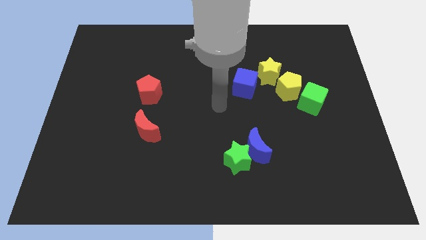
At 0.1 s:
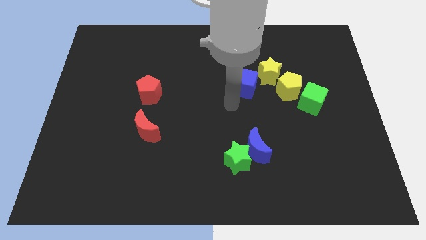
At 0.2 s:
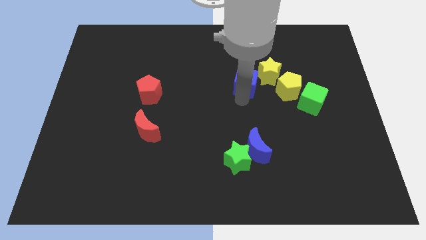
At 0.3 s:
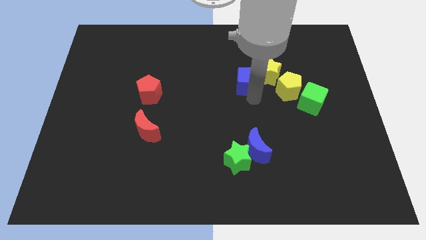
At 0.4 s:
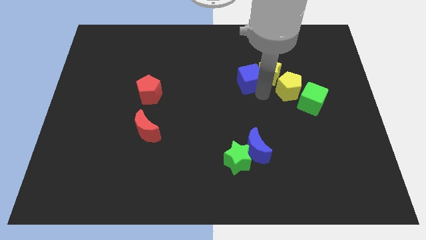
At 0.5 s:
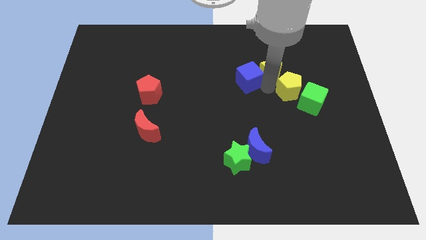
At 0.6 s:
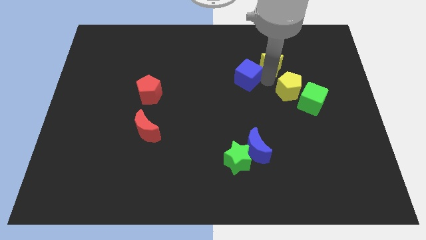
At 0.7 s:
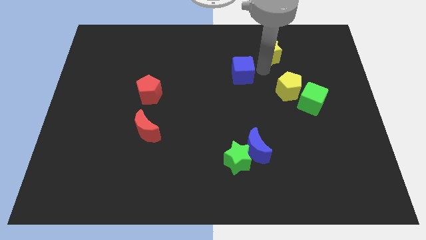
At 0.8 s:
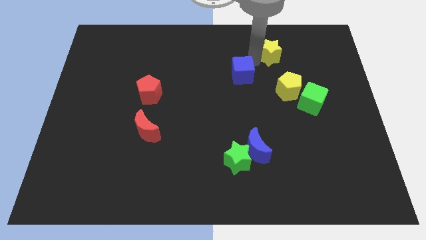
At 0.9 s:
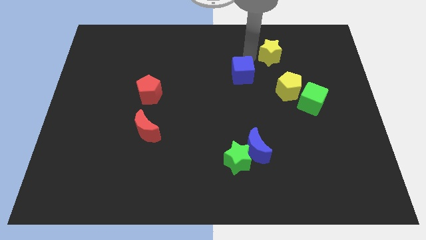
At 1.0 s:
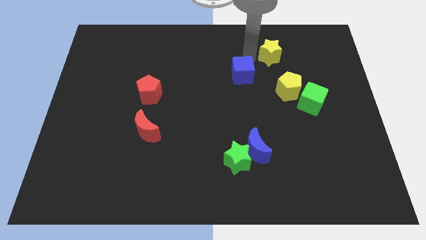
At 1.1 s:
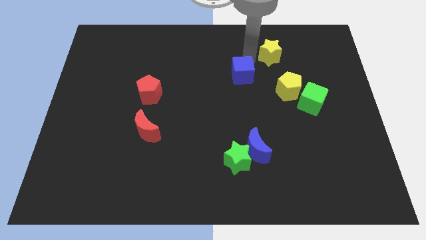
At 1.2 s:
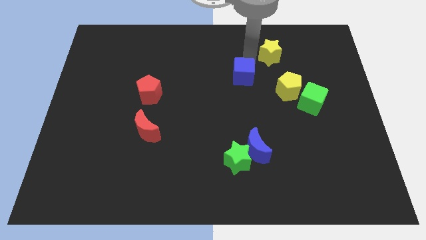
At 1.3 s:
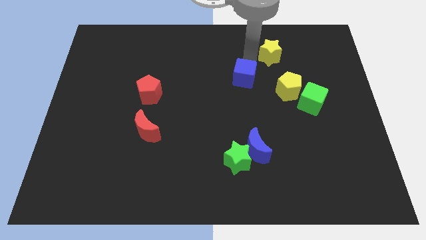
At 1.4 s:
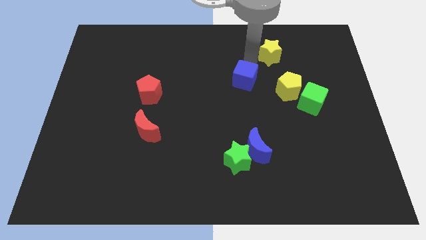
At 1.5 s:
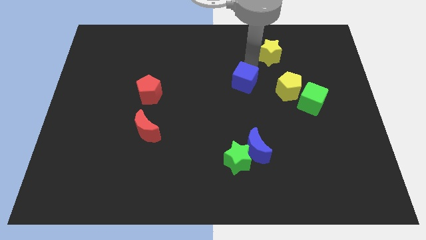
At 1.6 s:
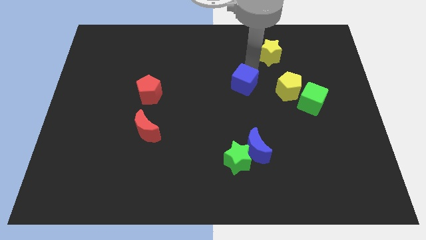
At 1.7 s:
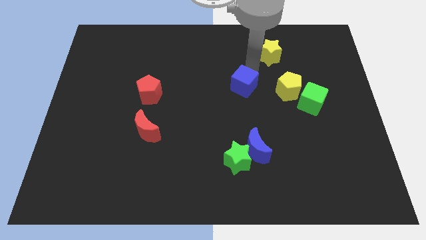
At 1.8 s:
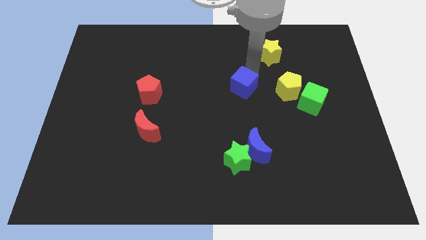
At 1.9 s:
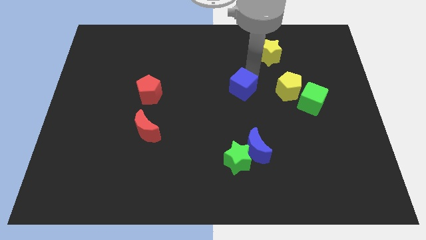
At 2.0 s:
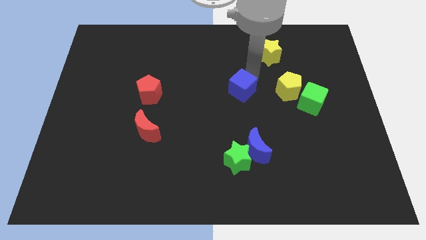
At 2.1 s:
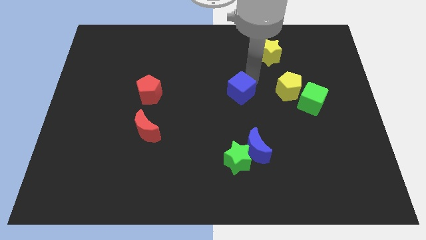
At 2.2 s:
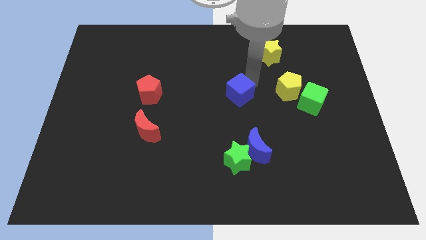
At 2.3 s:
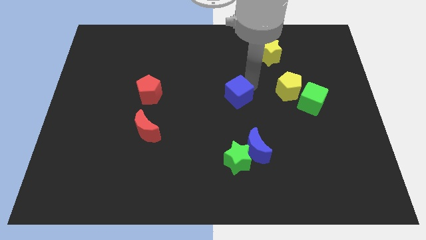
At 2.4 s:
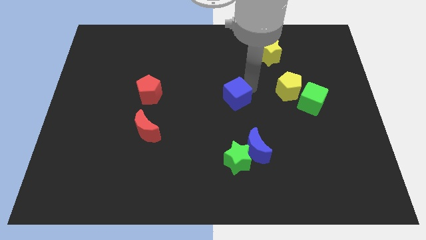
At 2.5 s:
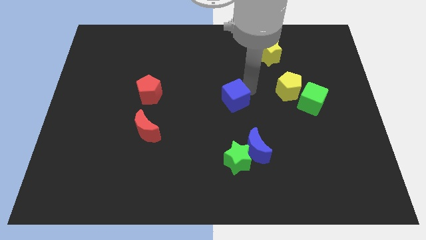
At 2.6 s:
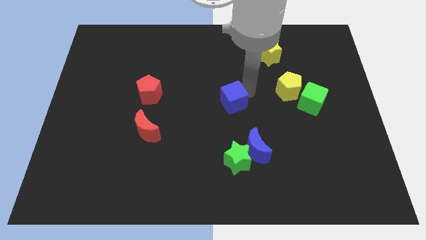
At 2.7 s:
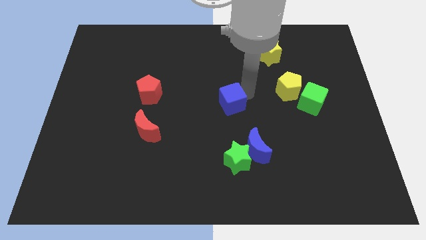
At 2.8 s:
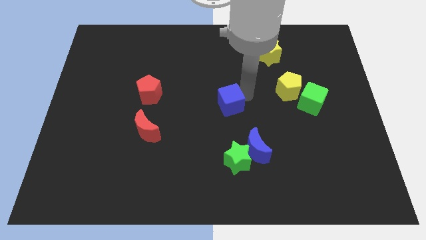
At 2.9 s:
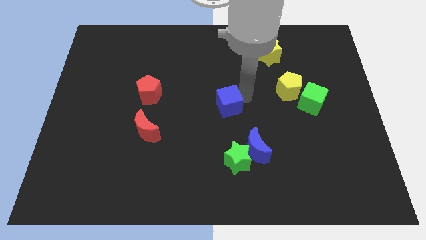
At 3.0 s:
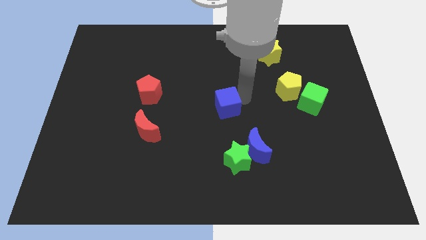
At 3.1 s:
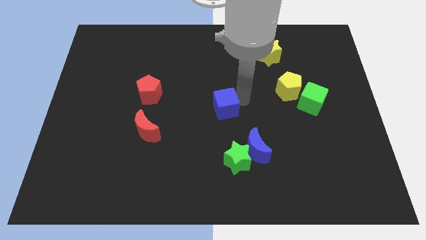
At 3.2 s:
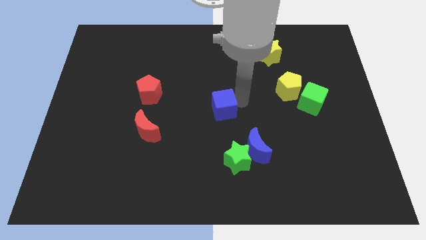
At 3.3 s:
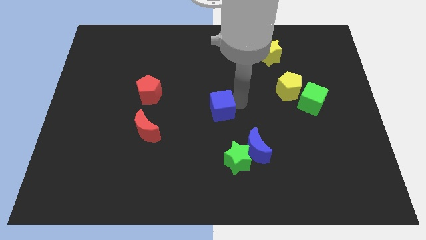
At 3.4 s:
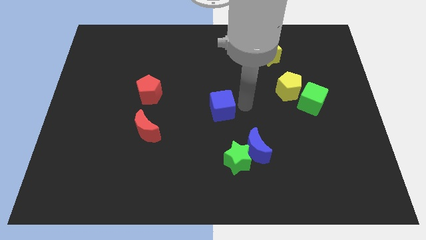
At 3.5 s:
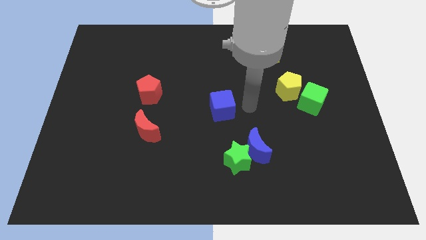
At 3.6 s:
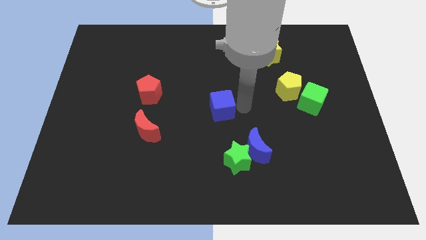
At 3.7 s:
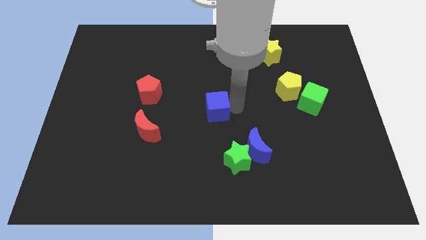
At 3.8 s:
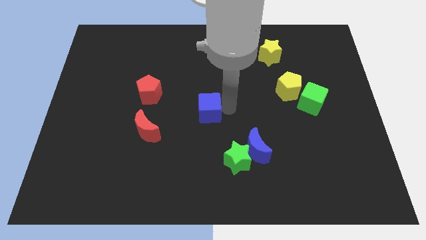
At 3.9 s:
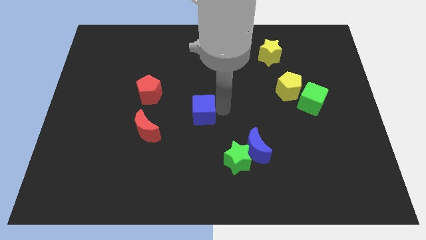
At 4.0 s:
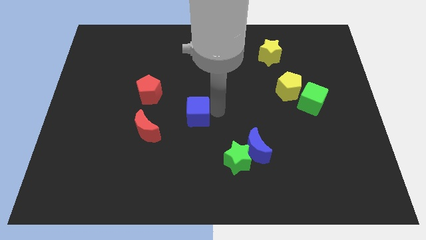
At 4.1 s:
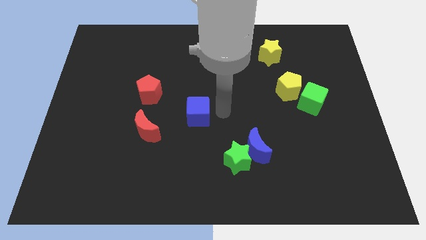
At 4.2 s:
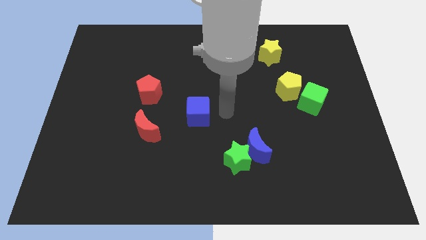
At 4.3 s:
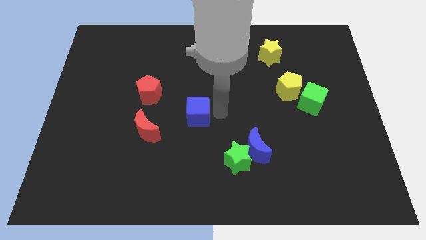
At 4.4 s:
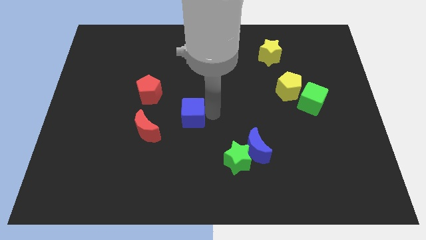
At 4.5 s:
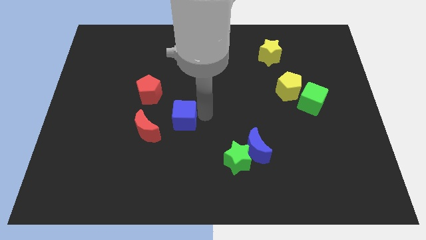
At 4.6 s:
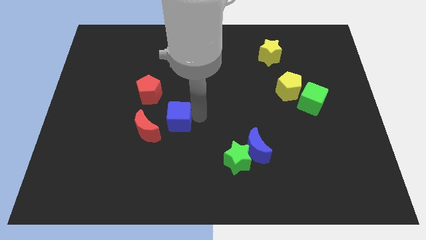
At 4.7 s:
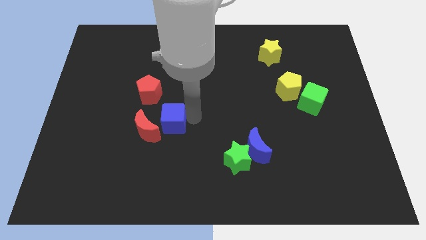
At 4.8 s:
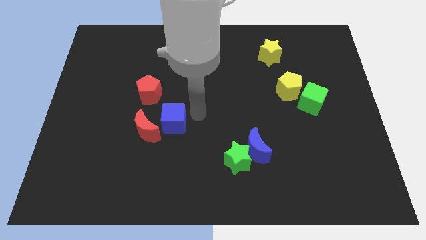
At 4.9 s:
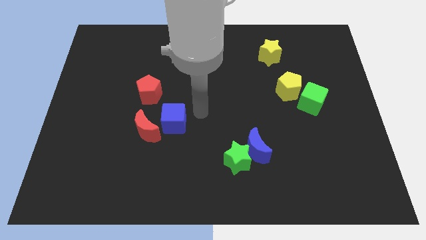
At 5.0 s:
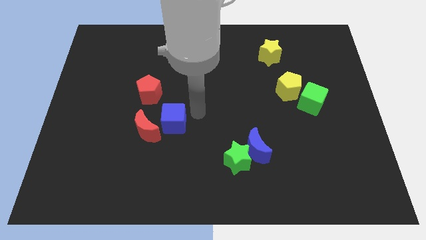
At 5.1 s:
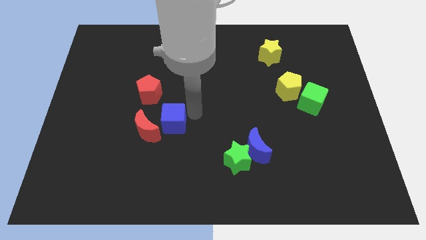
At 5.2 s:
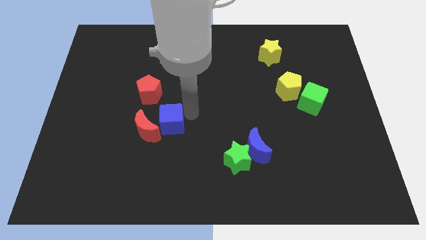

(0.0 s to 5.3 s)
put the blue cube towards the red moon

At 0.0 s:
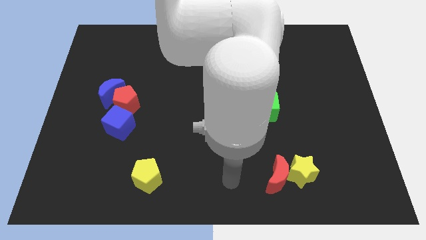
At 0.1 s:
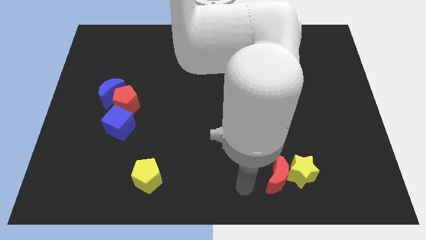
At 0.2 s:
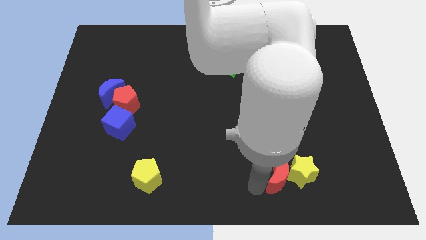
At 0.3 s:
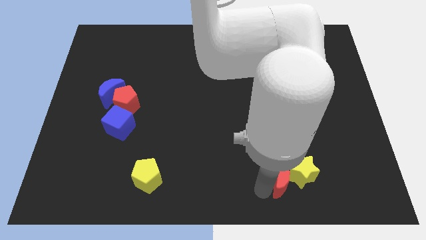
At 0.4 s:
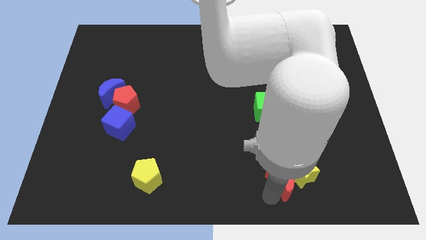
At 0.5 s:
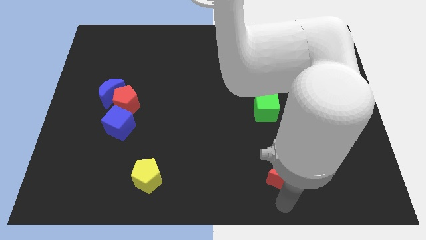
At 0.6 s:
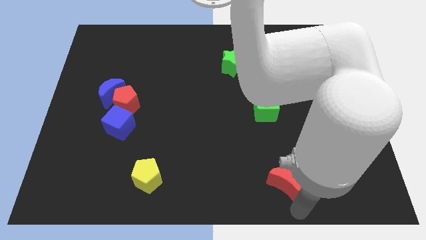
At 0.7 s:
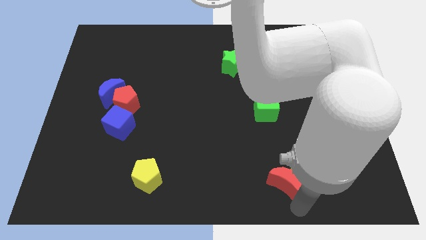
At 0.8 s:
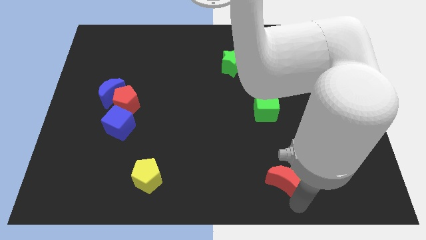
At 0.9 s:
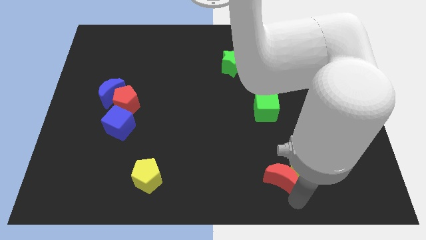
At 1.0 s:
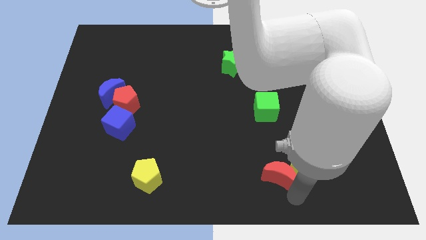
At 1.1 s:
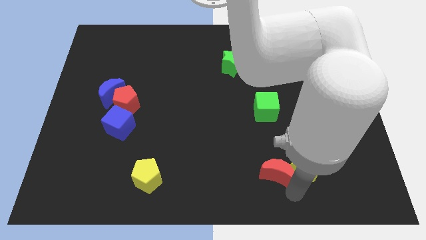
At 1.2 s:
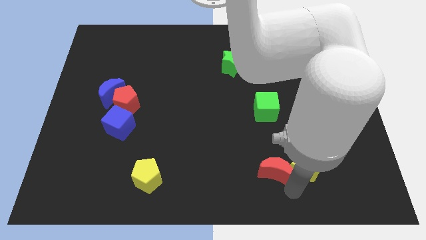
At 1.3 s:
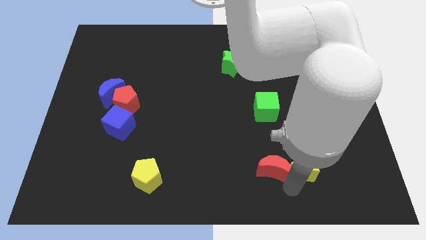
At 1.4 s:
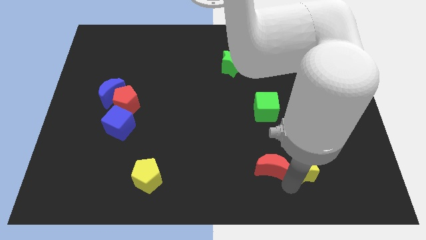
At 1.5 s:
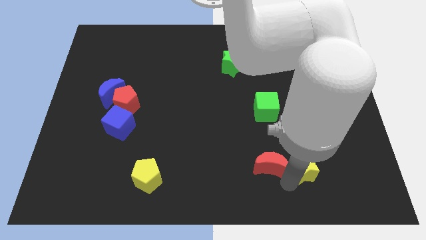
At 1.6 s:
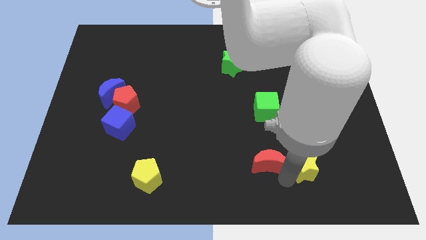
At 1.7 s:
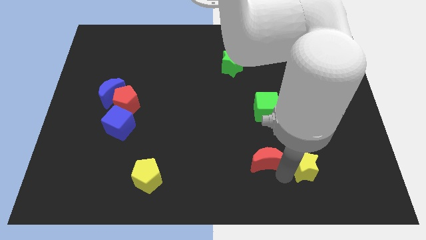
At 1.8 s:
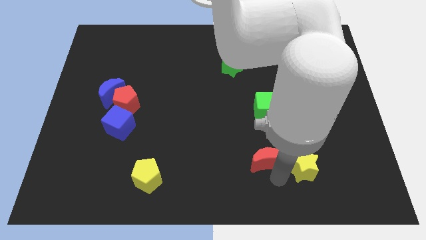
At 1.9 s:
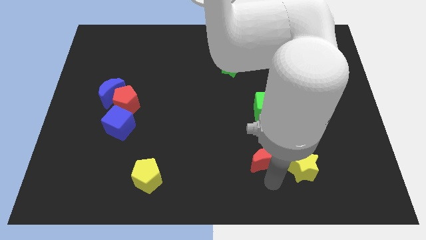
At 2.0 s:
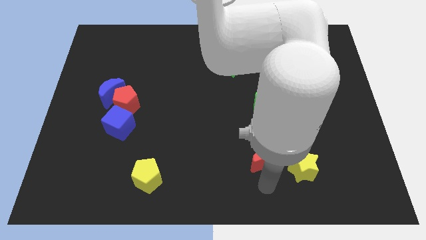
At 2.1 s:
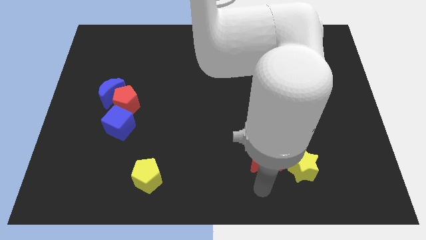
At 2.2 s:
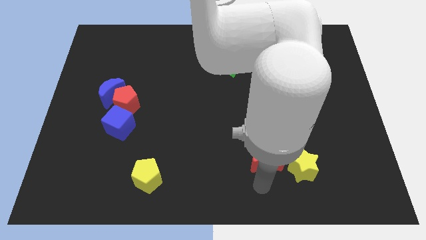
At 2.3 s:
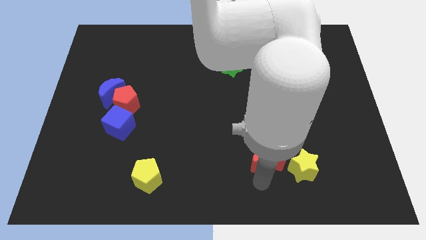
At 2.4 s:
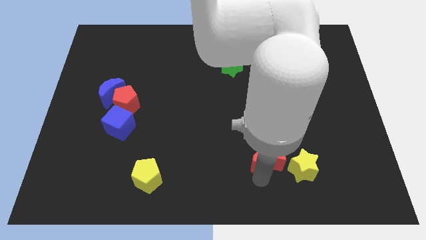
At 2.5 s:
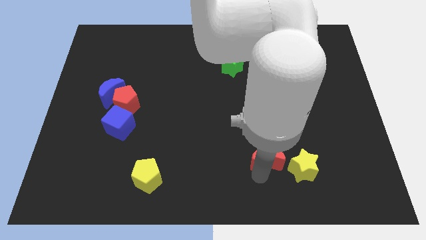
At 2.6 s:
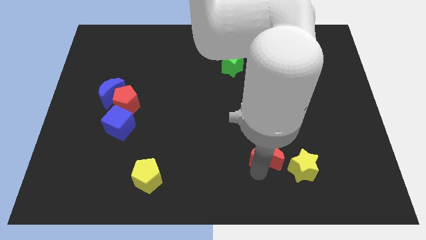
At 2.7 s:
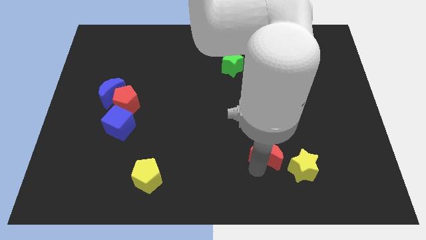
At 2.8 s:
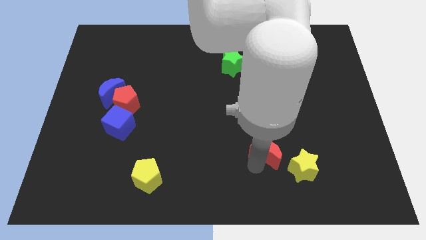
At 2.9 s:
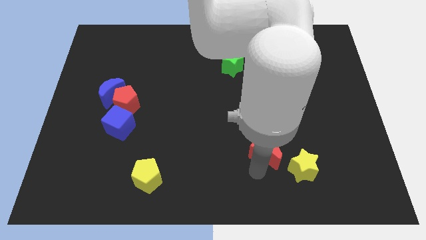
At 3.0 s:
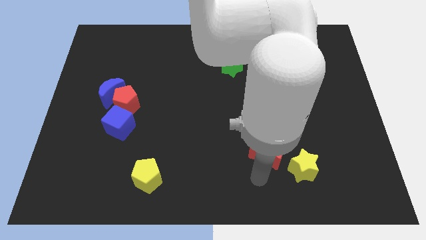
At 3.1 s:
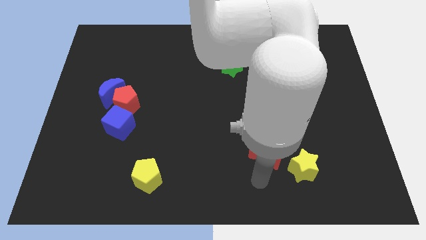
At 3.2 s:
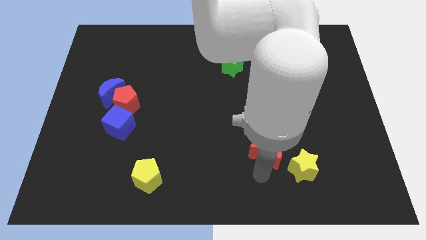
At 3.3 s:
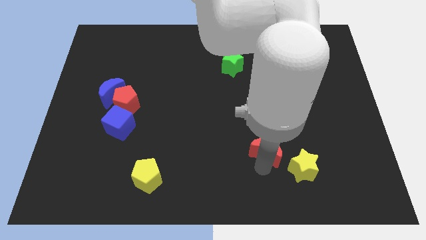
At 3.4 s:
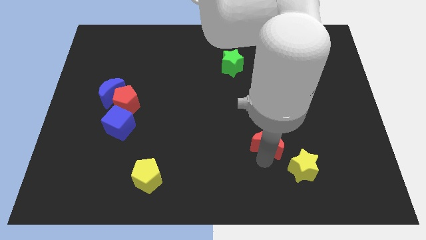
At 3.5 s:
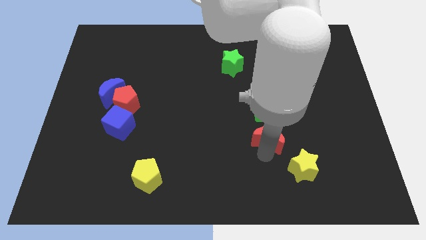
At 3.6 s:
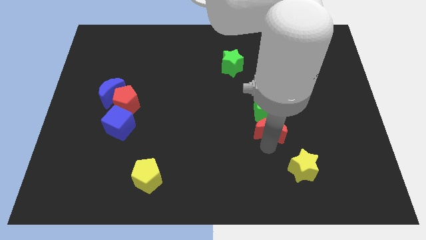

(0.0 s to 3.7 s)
put the red moon to the green cube
